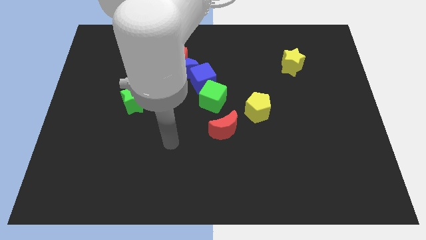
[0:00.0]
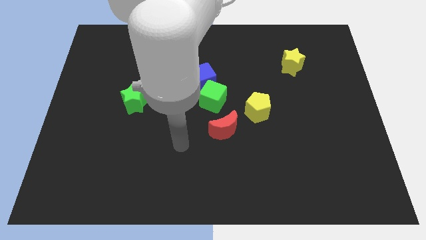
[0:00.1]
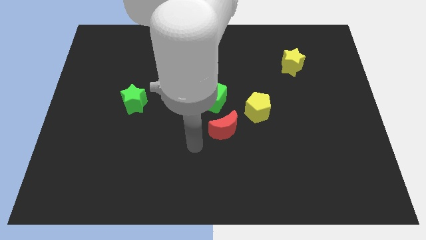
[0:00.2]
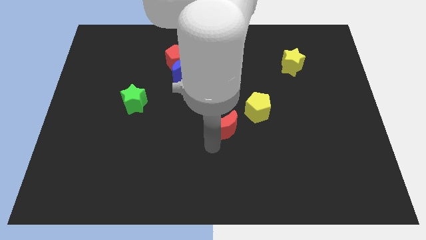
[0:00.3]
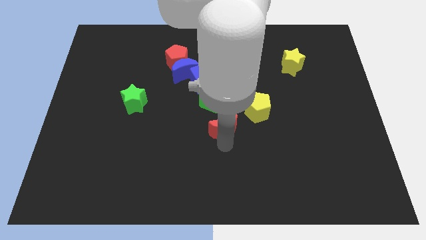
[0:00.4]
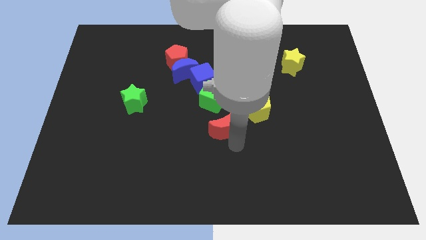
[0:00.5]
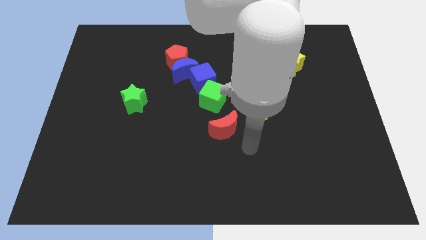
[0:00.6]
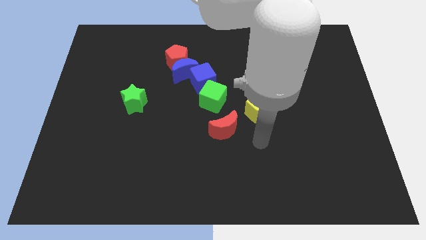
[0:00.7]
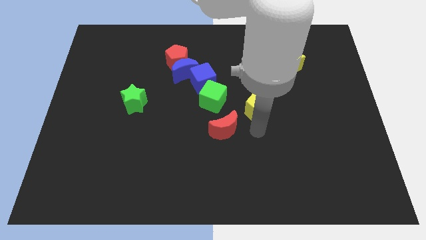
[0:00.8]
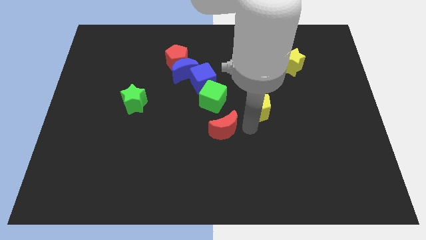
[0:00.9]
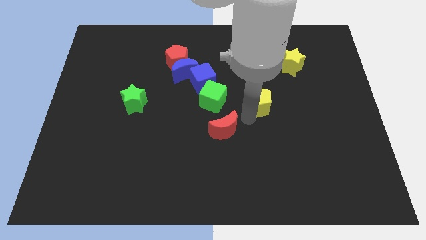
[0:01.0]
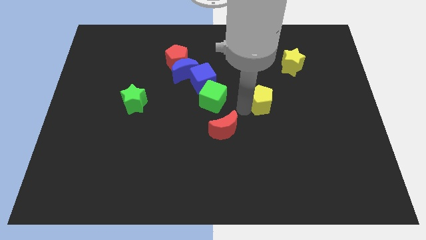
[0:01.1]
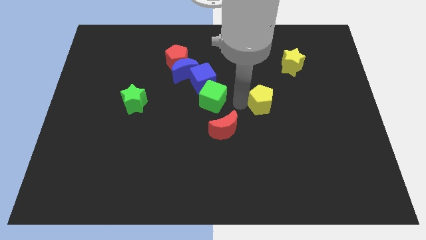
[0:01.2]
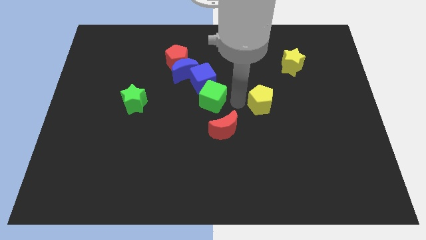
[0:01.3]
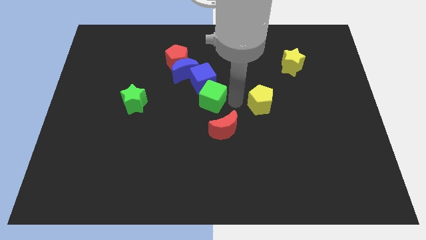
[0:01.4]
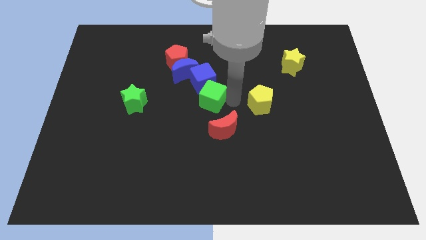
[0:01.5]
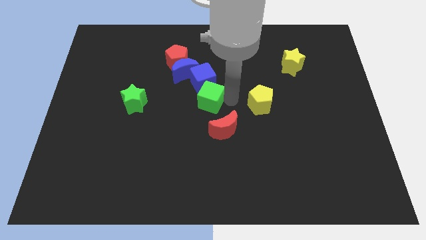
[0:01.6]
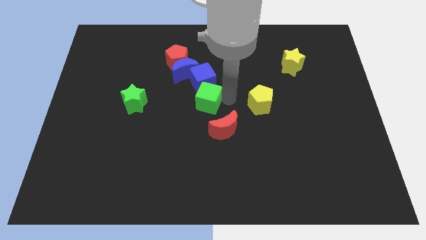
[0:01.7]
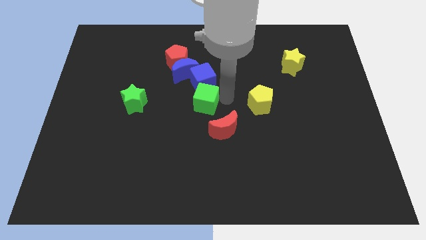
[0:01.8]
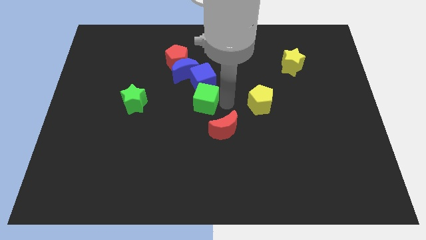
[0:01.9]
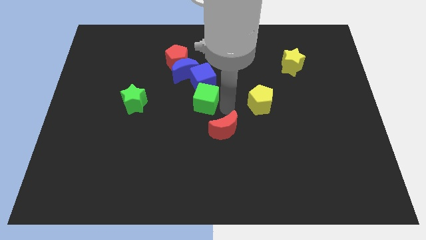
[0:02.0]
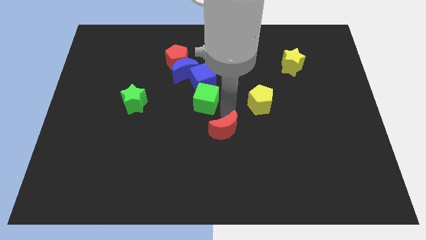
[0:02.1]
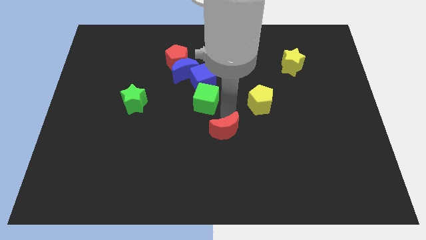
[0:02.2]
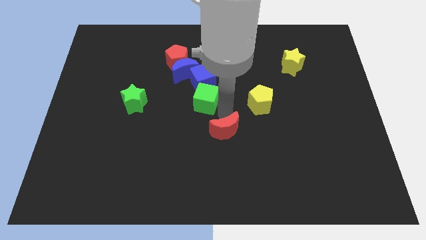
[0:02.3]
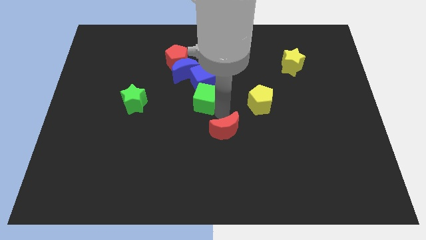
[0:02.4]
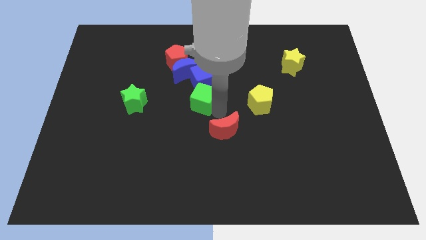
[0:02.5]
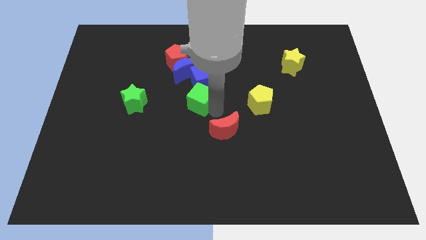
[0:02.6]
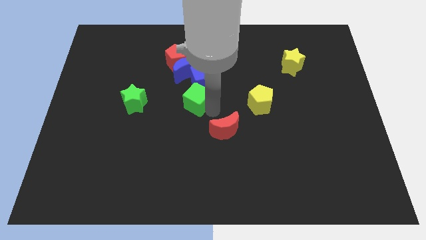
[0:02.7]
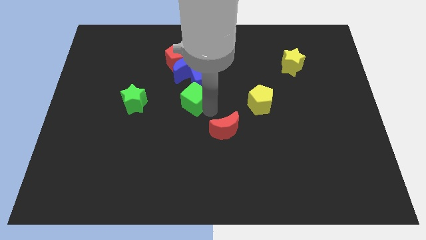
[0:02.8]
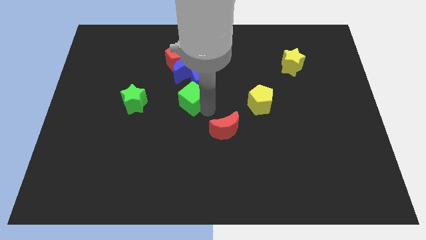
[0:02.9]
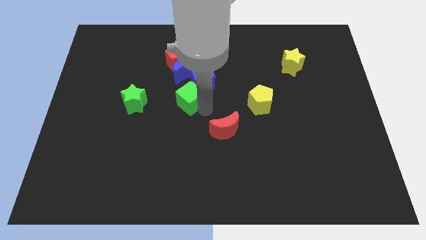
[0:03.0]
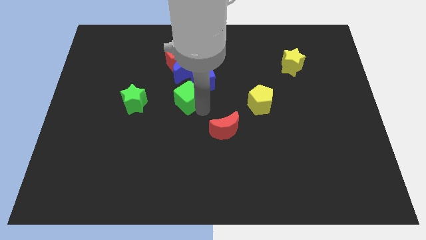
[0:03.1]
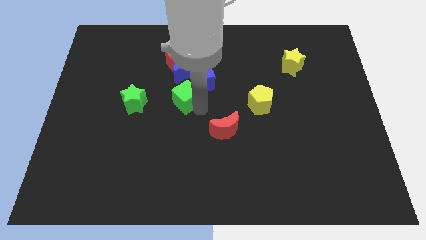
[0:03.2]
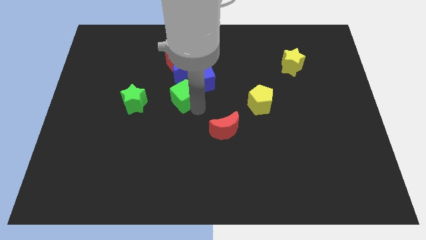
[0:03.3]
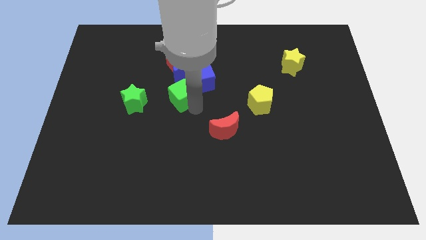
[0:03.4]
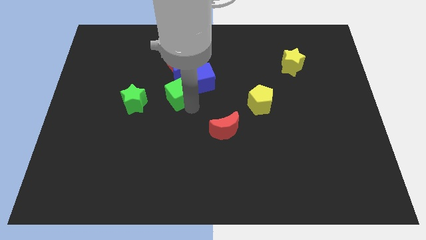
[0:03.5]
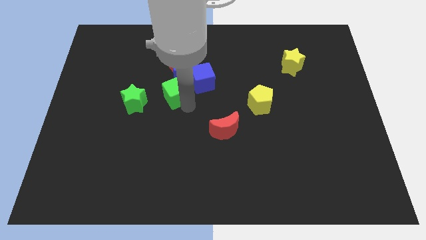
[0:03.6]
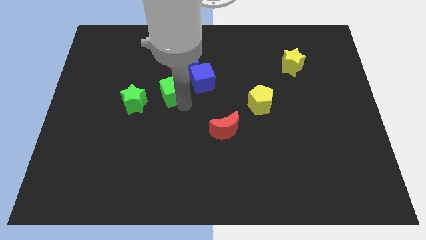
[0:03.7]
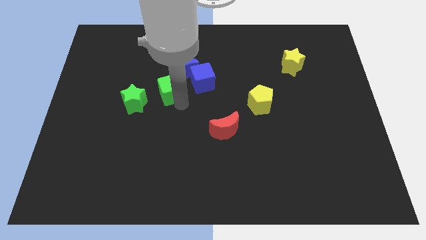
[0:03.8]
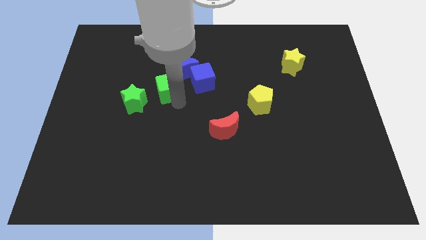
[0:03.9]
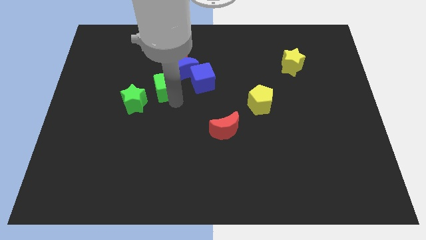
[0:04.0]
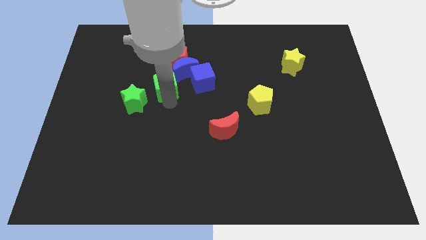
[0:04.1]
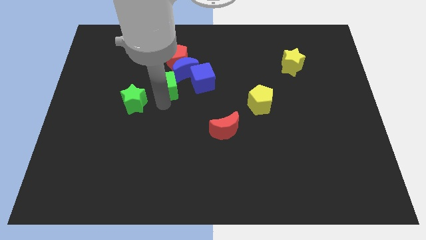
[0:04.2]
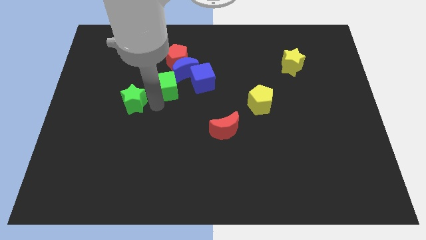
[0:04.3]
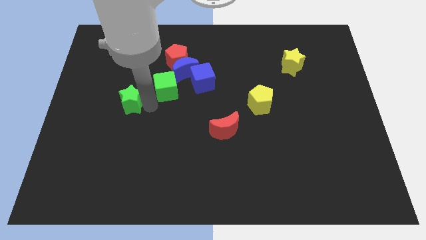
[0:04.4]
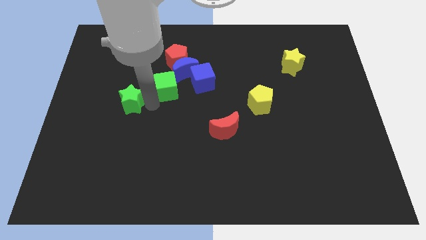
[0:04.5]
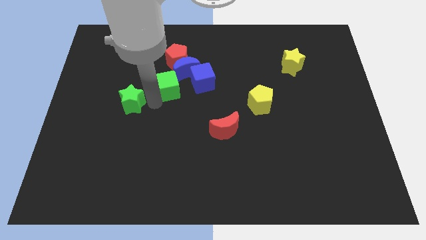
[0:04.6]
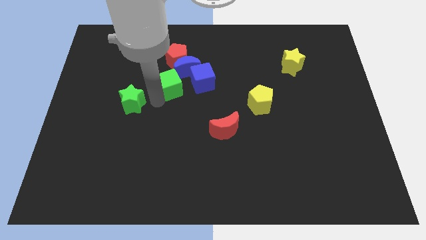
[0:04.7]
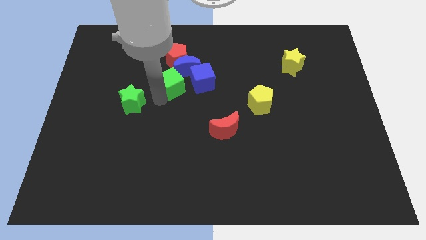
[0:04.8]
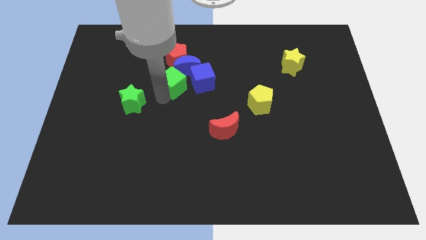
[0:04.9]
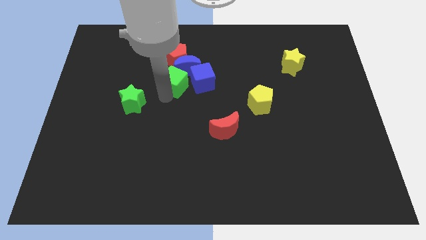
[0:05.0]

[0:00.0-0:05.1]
put the green cube towards the blue moon

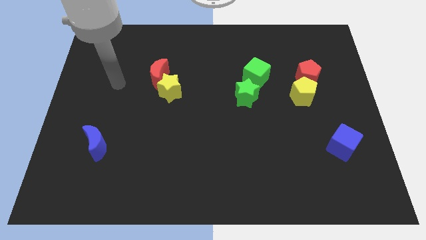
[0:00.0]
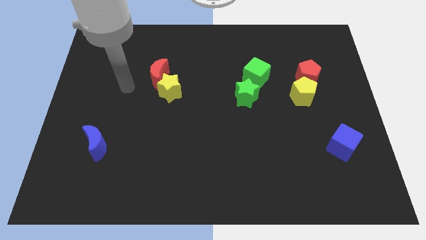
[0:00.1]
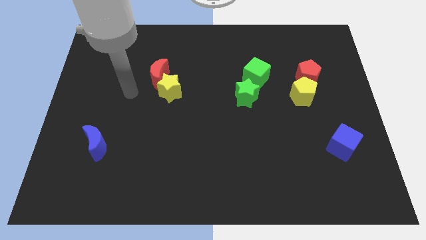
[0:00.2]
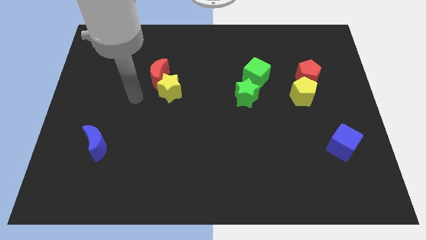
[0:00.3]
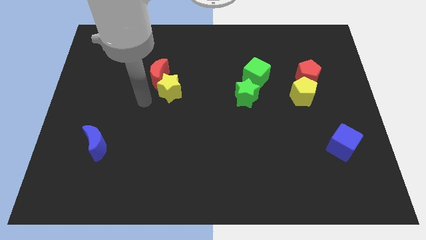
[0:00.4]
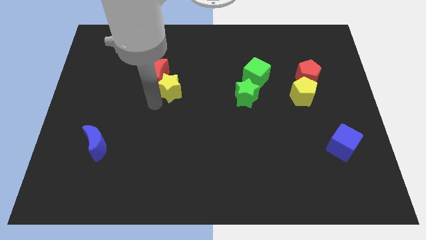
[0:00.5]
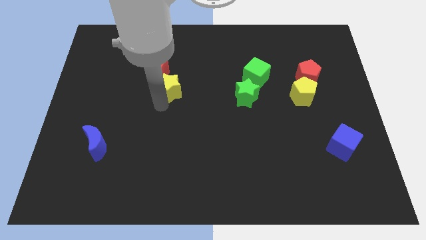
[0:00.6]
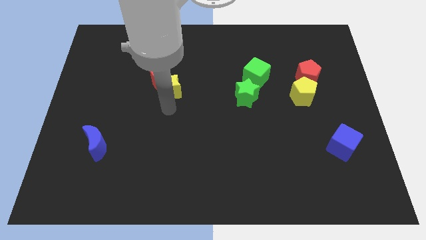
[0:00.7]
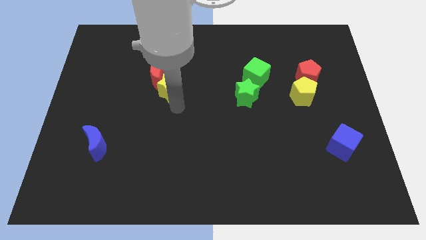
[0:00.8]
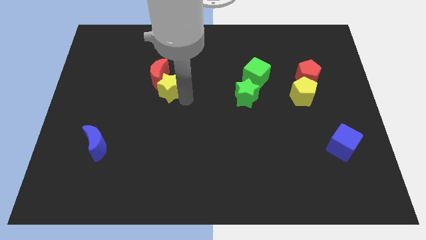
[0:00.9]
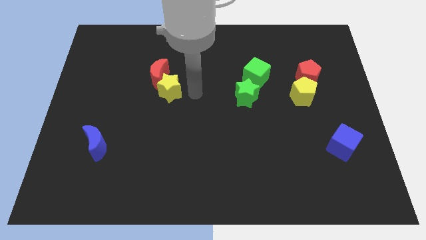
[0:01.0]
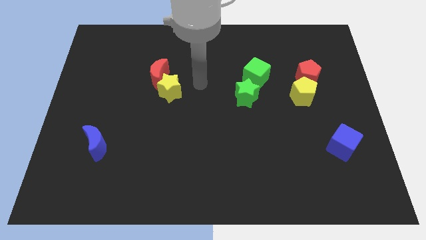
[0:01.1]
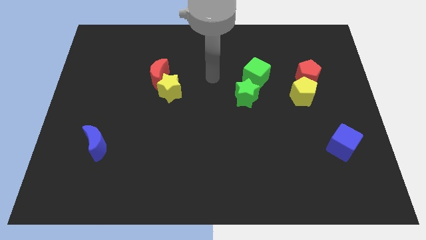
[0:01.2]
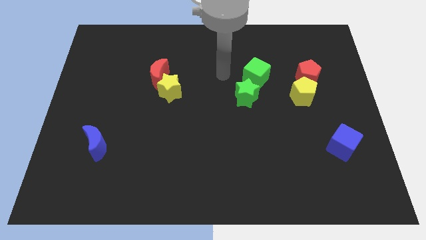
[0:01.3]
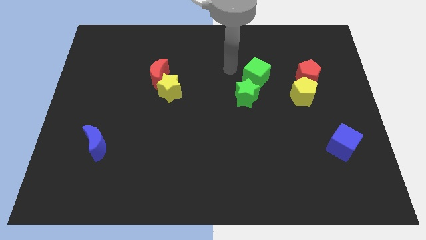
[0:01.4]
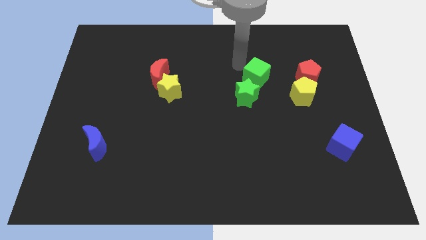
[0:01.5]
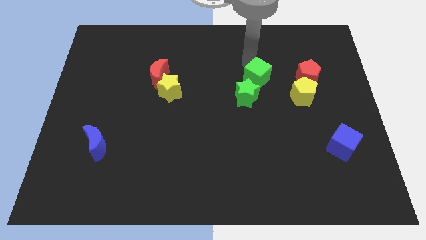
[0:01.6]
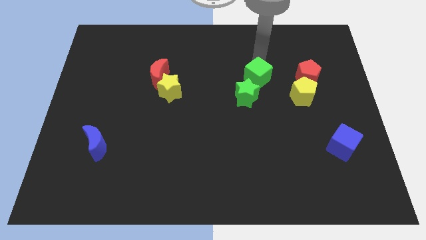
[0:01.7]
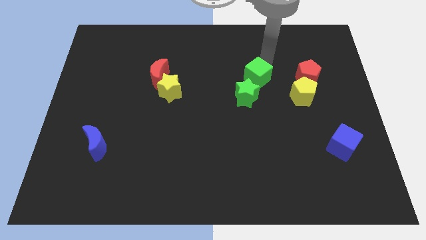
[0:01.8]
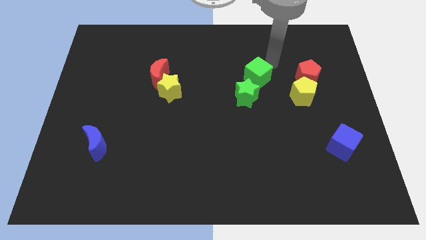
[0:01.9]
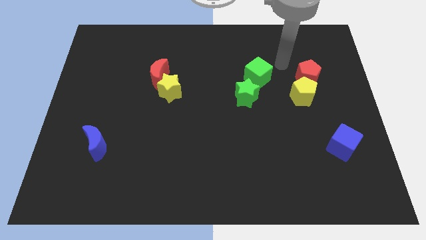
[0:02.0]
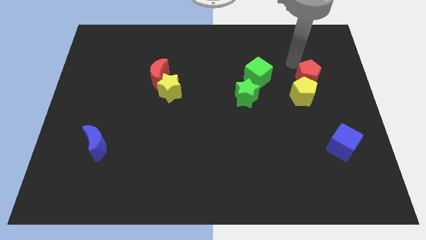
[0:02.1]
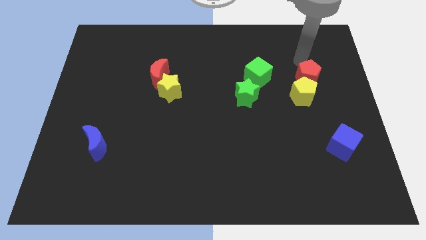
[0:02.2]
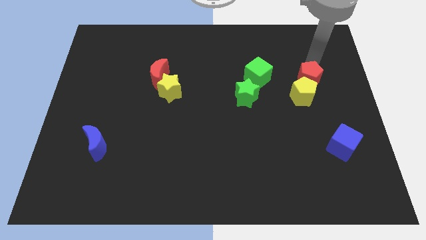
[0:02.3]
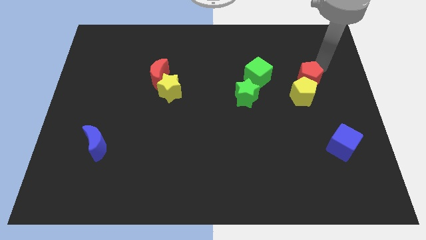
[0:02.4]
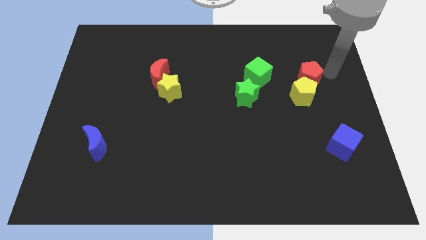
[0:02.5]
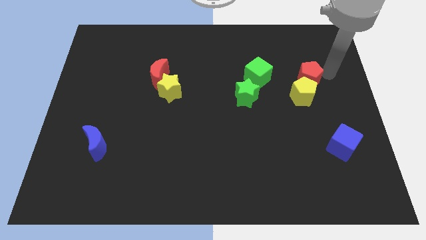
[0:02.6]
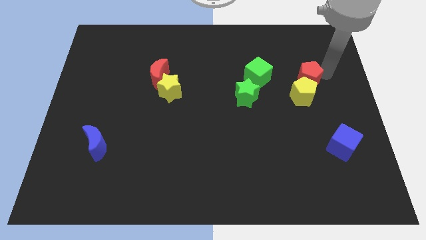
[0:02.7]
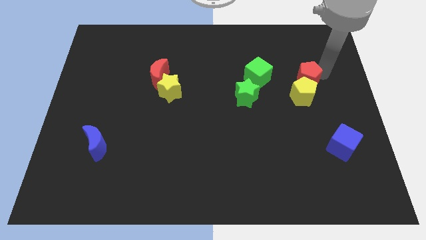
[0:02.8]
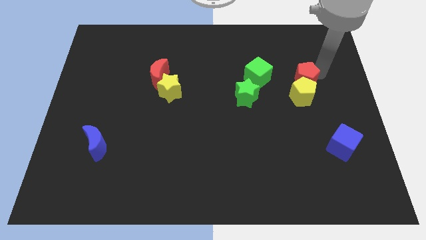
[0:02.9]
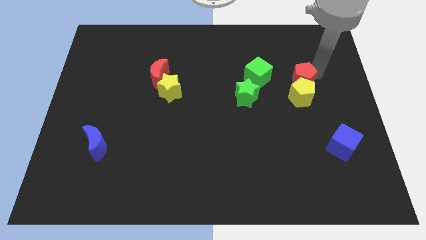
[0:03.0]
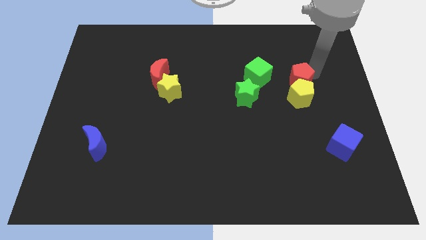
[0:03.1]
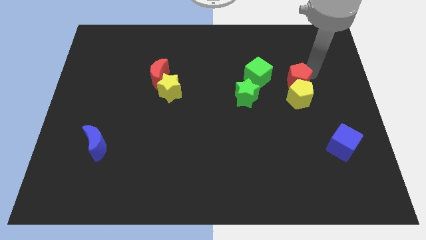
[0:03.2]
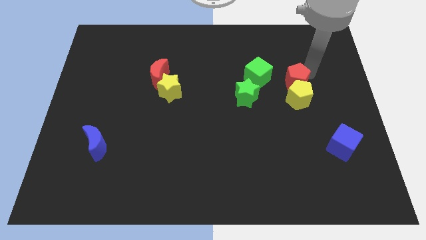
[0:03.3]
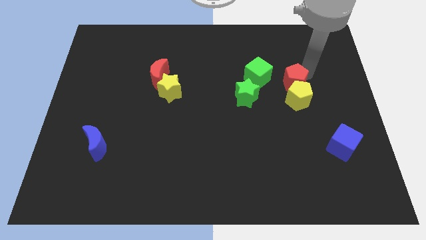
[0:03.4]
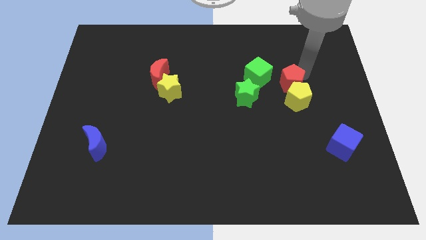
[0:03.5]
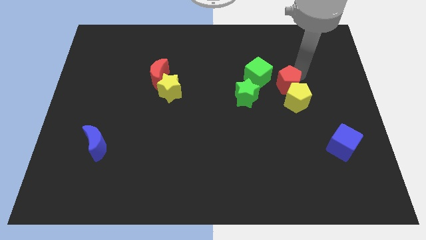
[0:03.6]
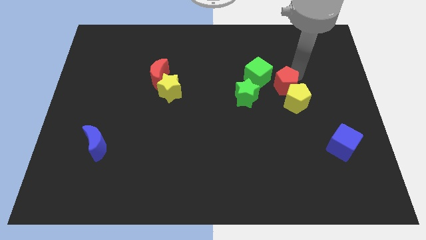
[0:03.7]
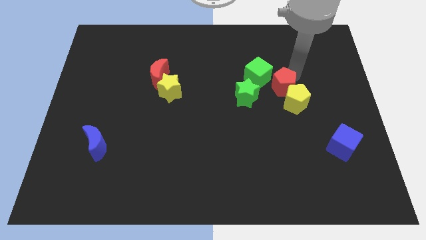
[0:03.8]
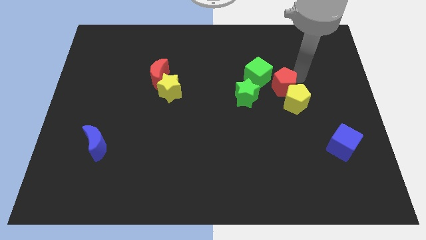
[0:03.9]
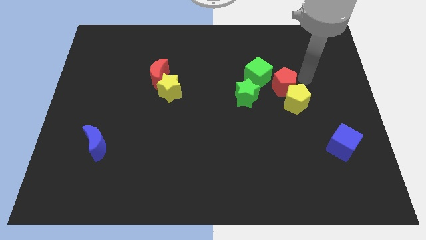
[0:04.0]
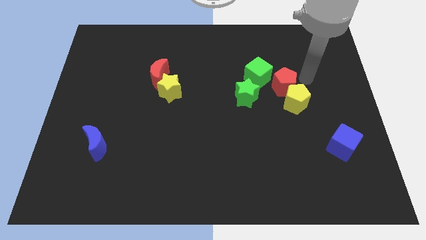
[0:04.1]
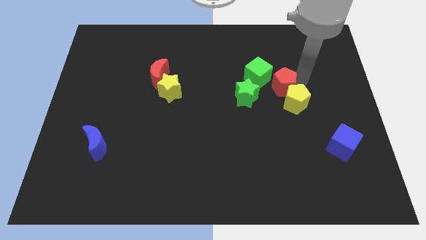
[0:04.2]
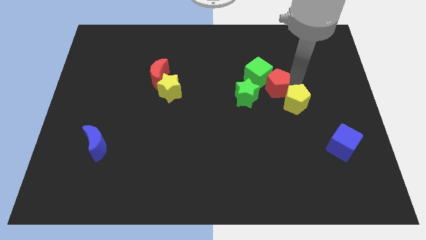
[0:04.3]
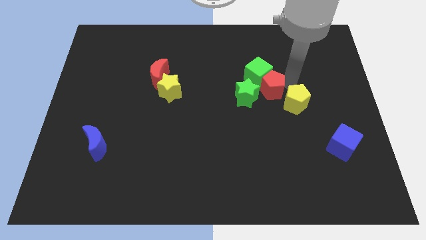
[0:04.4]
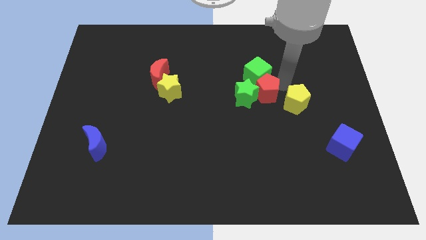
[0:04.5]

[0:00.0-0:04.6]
move the red pentagon towards the green star
